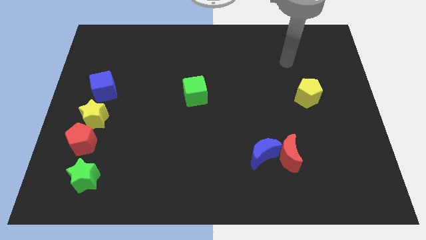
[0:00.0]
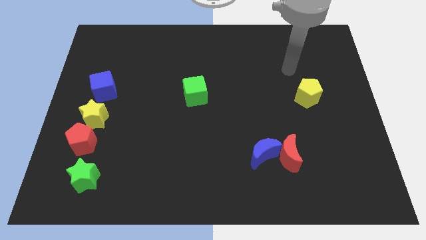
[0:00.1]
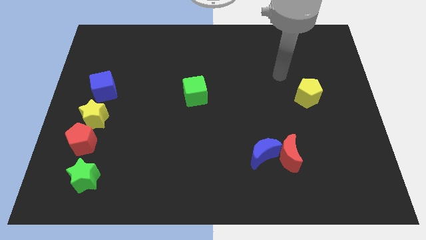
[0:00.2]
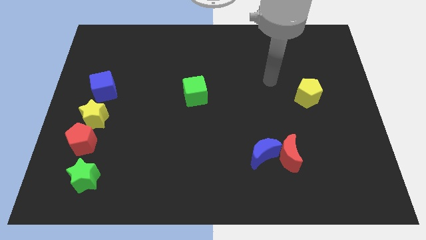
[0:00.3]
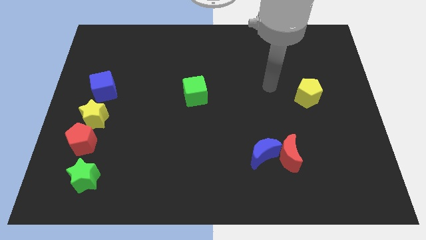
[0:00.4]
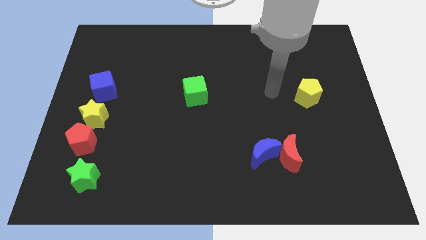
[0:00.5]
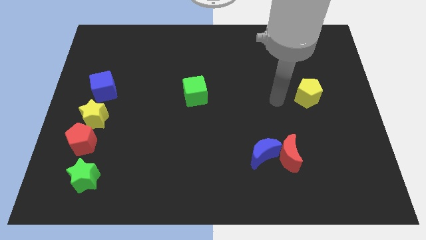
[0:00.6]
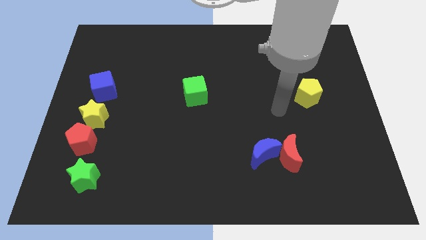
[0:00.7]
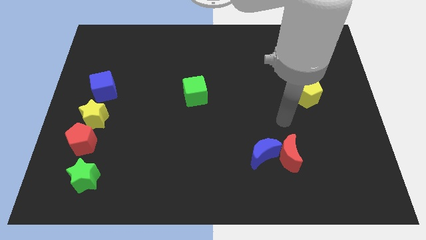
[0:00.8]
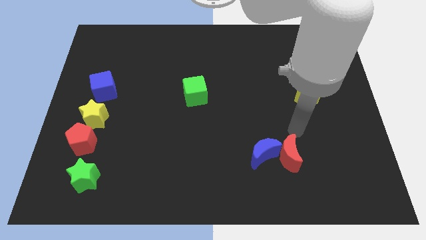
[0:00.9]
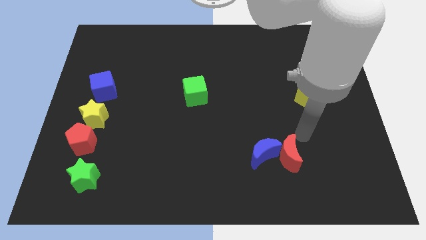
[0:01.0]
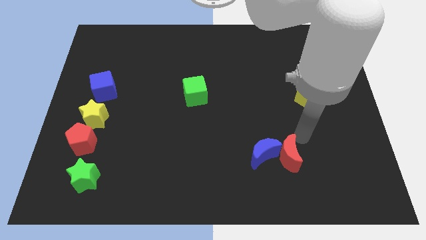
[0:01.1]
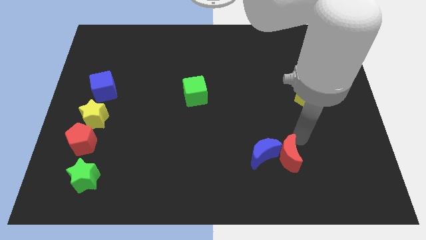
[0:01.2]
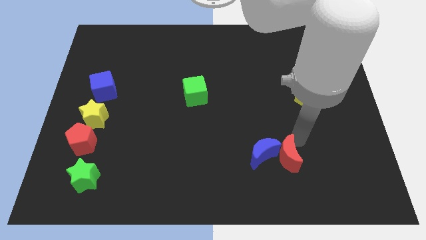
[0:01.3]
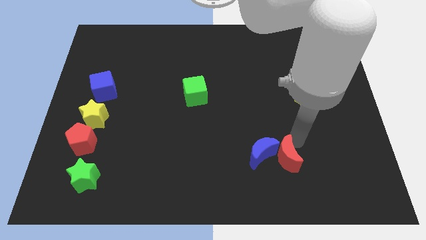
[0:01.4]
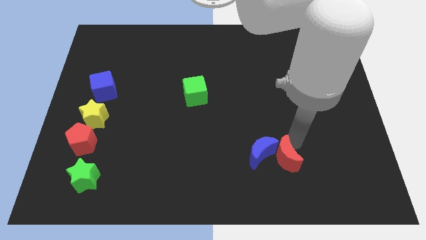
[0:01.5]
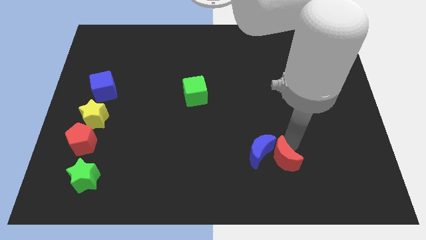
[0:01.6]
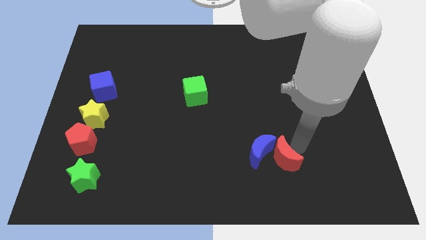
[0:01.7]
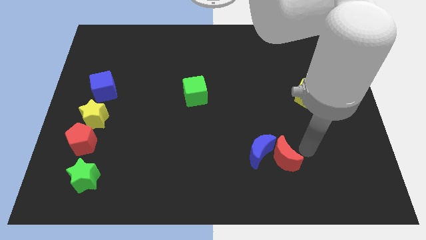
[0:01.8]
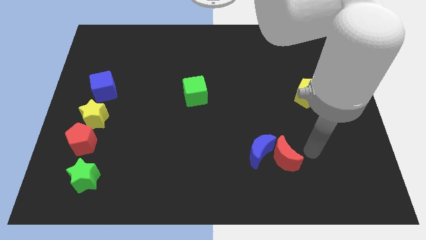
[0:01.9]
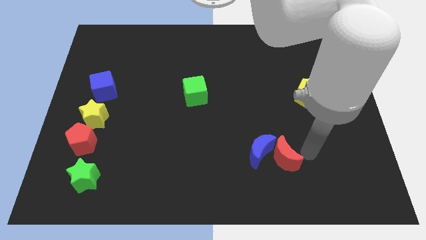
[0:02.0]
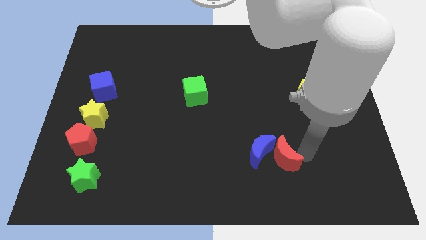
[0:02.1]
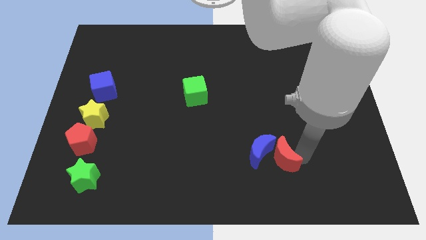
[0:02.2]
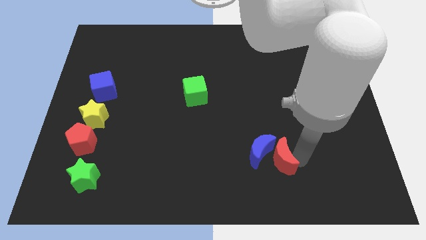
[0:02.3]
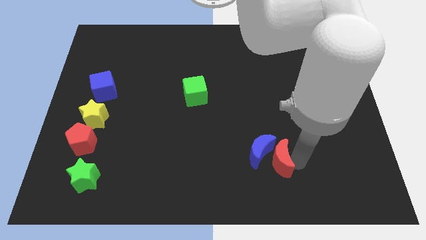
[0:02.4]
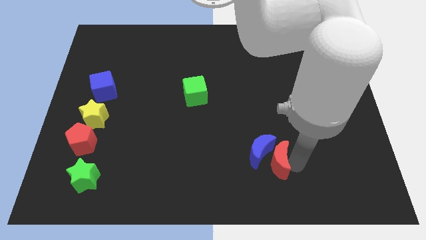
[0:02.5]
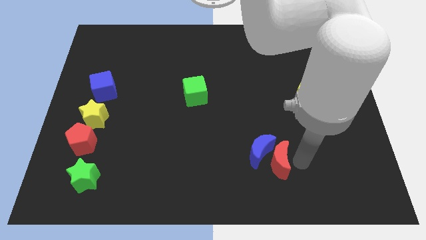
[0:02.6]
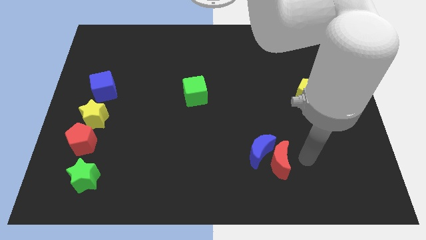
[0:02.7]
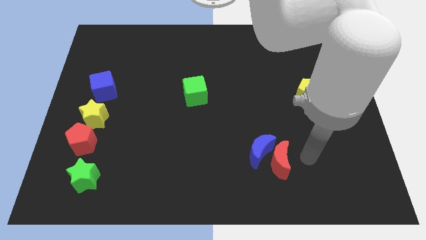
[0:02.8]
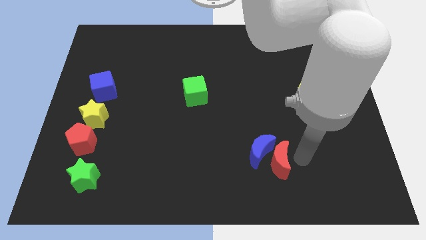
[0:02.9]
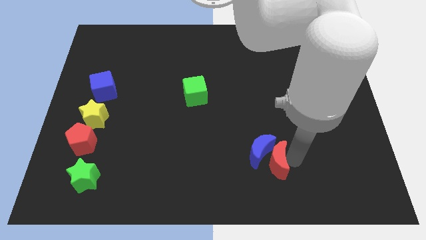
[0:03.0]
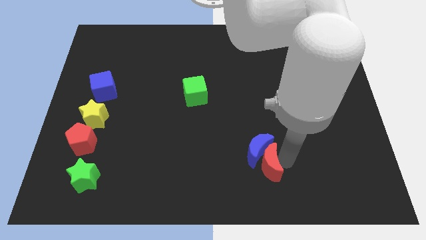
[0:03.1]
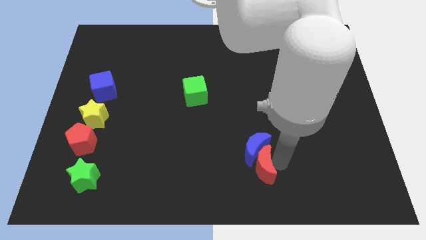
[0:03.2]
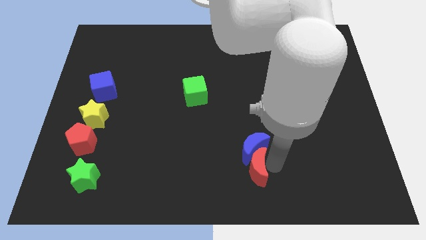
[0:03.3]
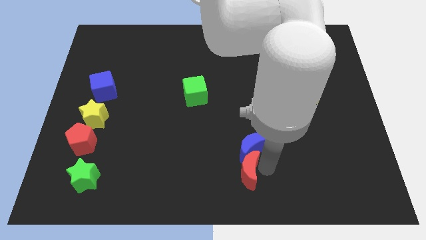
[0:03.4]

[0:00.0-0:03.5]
move the red moon left a little bit

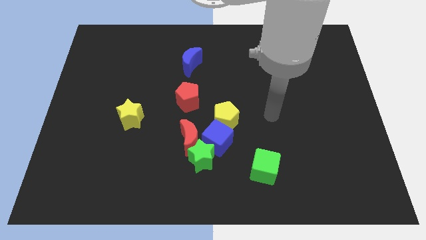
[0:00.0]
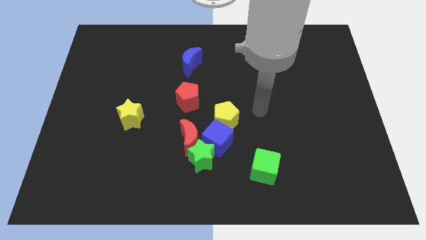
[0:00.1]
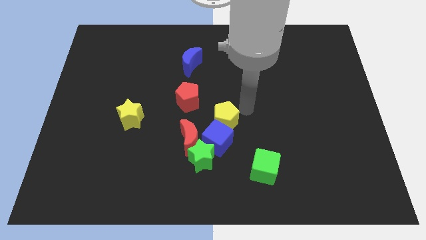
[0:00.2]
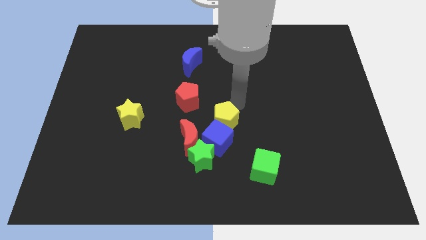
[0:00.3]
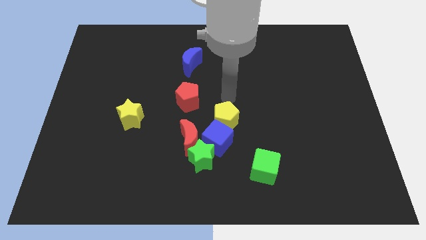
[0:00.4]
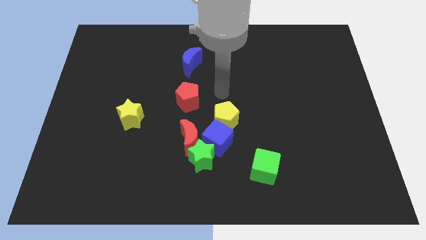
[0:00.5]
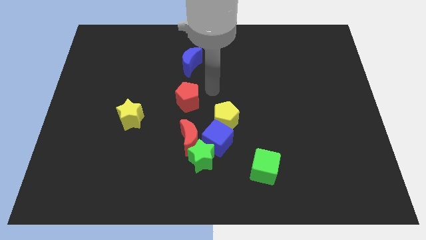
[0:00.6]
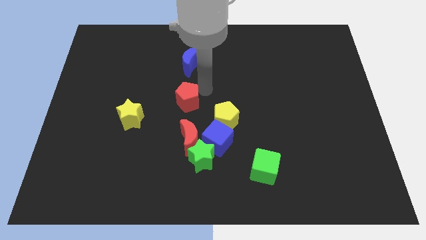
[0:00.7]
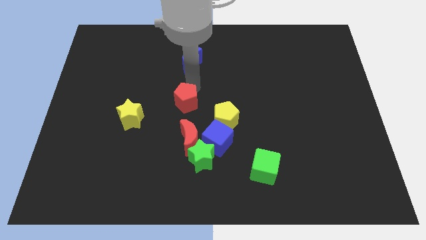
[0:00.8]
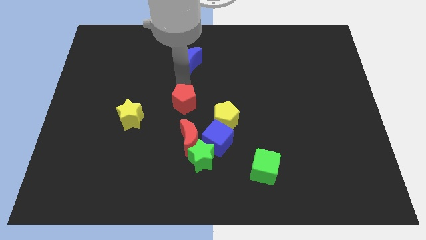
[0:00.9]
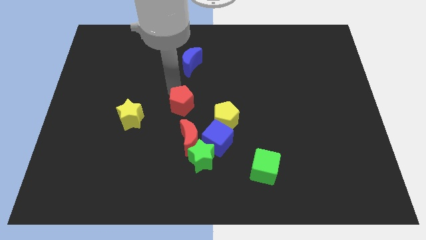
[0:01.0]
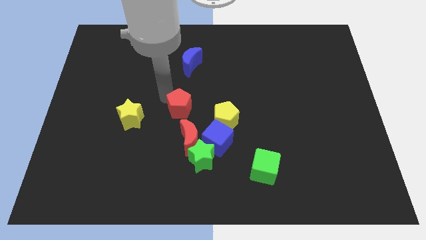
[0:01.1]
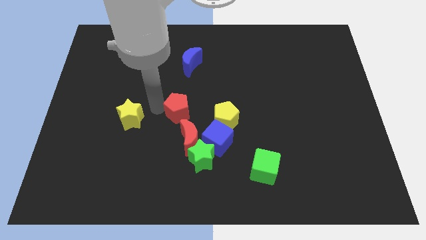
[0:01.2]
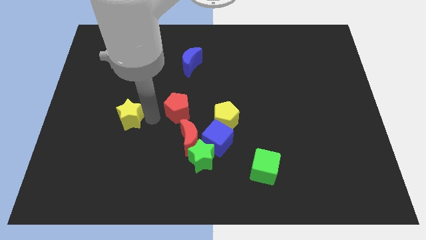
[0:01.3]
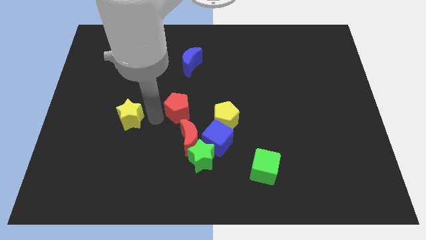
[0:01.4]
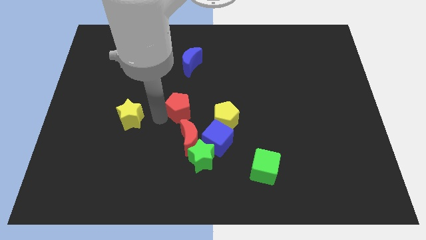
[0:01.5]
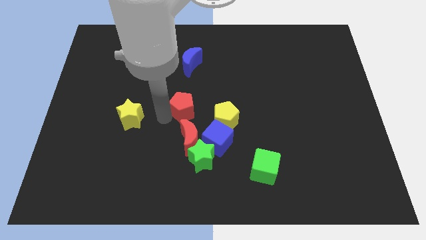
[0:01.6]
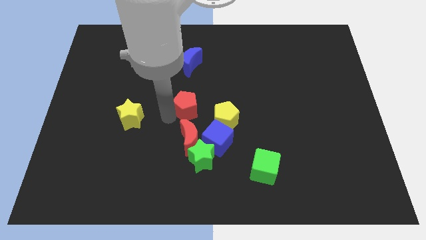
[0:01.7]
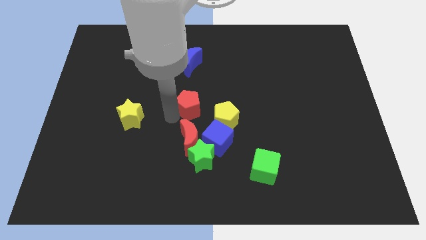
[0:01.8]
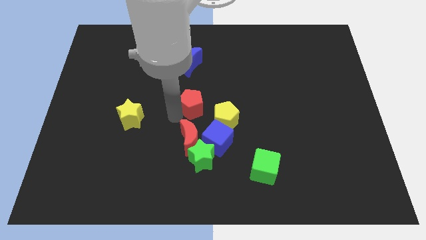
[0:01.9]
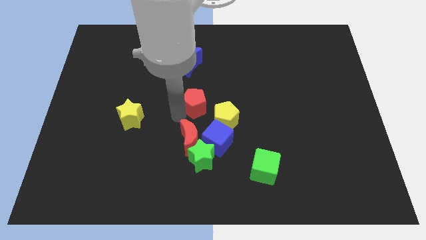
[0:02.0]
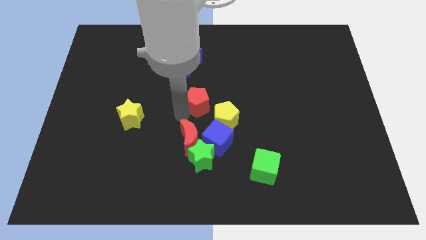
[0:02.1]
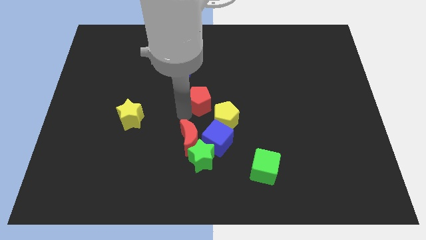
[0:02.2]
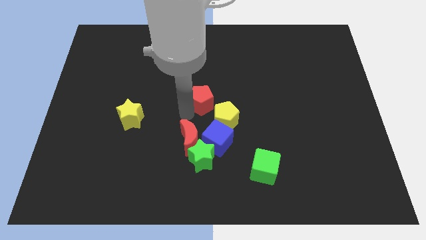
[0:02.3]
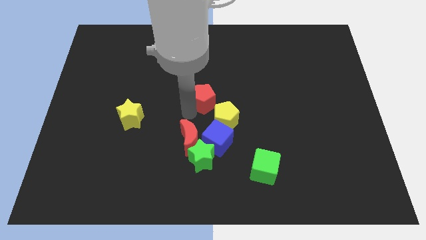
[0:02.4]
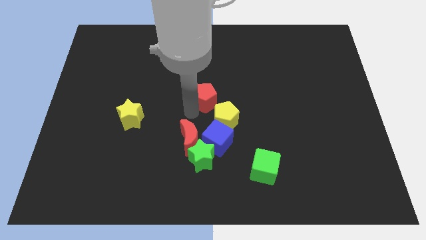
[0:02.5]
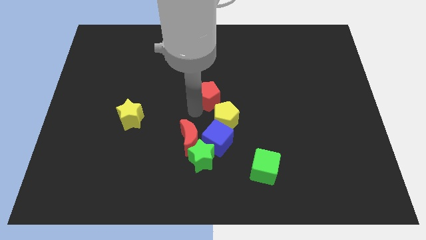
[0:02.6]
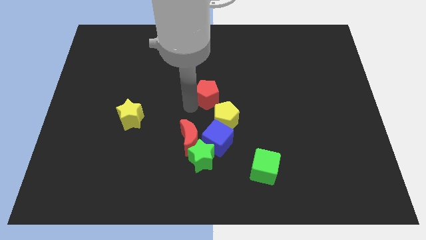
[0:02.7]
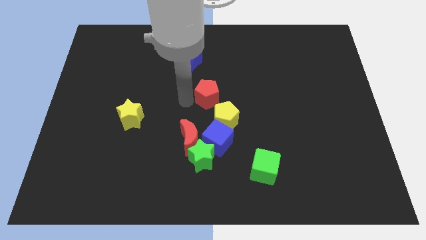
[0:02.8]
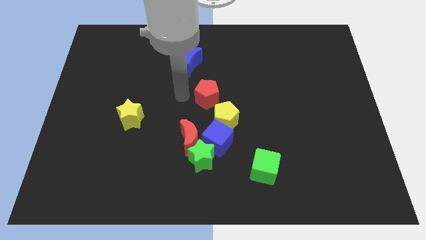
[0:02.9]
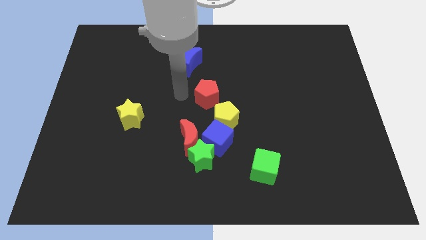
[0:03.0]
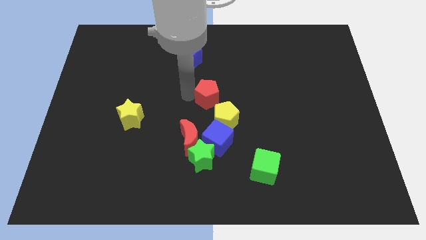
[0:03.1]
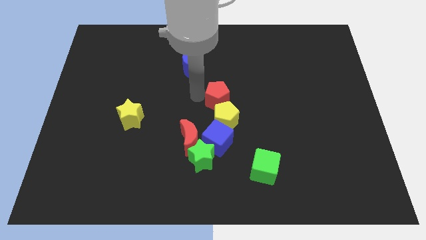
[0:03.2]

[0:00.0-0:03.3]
push the red pentagon a little to the right

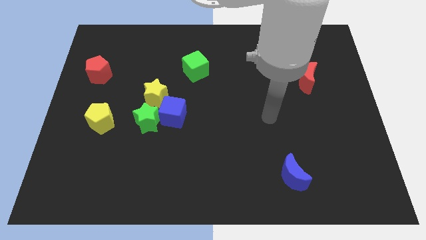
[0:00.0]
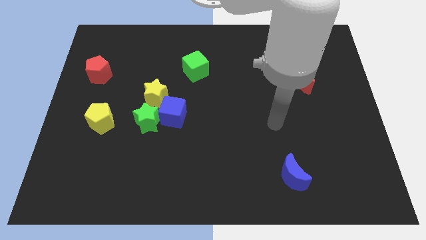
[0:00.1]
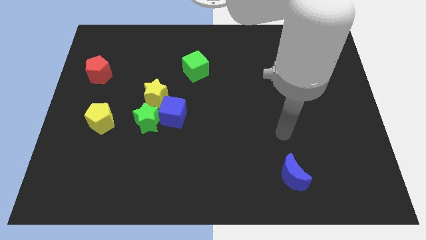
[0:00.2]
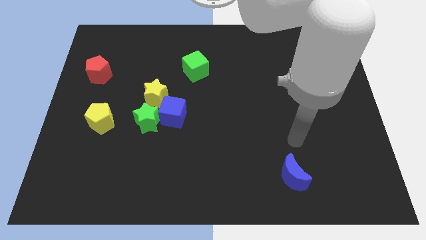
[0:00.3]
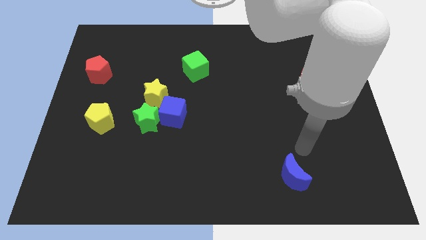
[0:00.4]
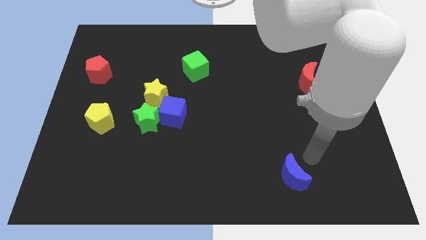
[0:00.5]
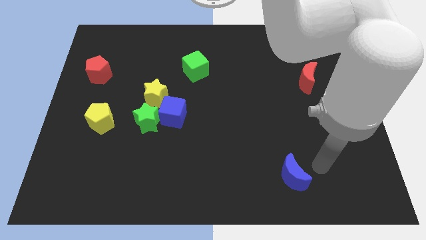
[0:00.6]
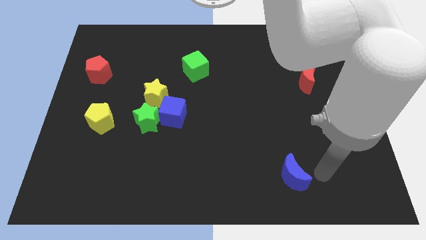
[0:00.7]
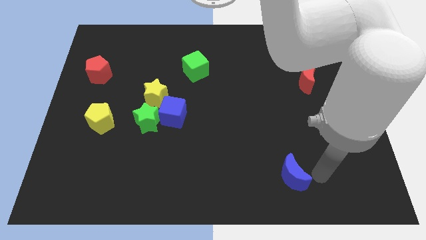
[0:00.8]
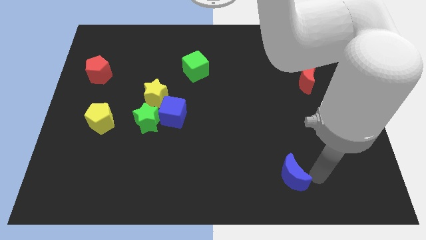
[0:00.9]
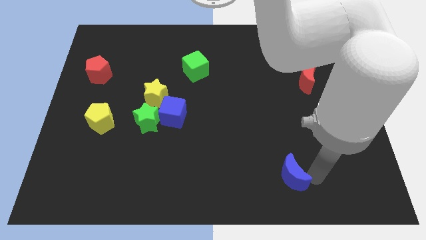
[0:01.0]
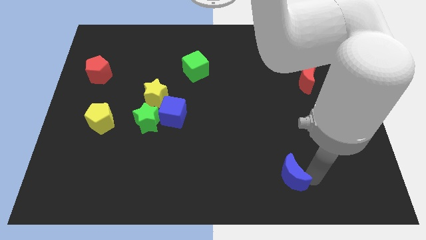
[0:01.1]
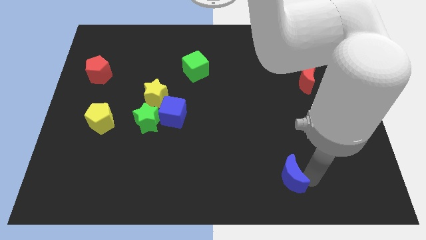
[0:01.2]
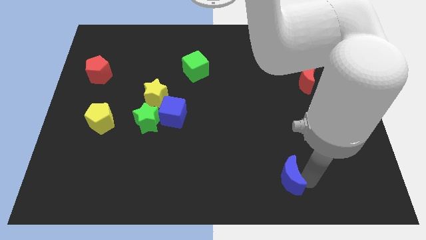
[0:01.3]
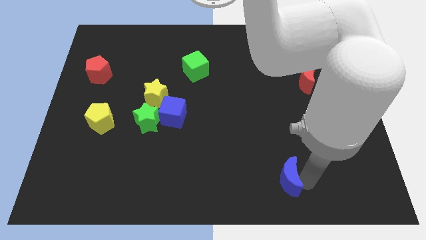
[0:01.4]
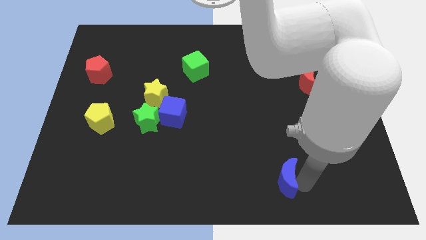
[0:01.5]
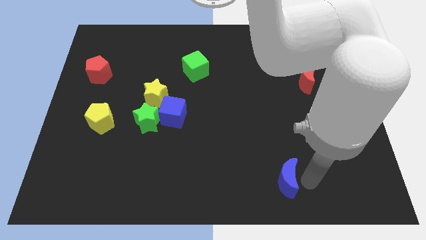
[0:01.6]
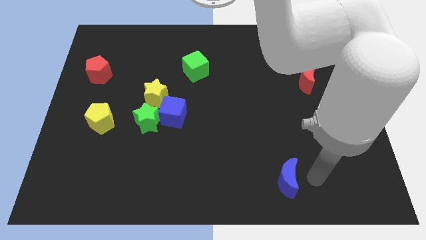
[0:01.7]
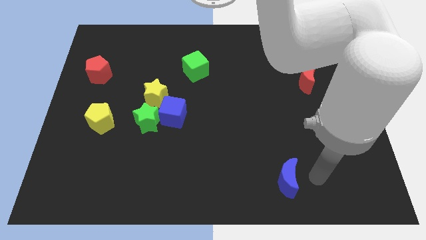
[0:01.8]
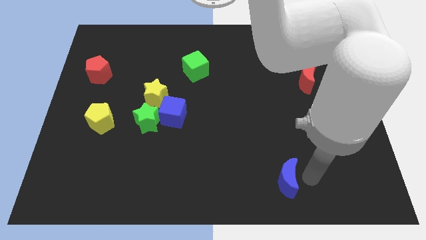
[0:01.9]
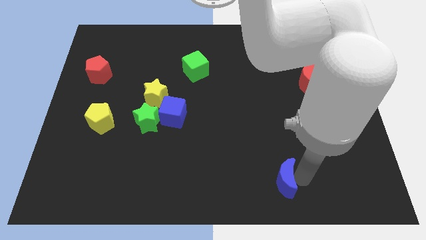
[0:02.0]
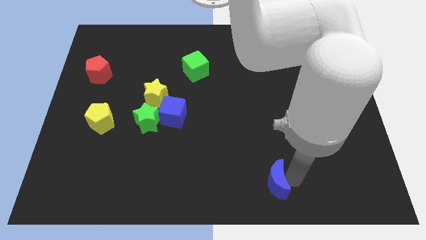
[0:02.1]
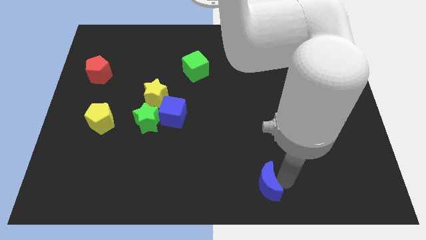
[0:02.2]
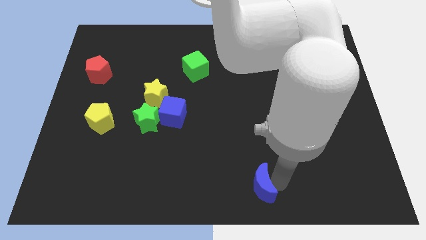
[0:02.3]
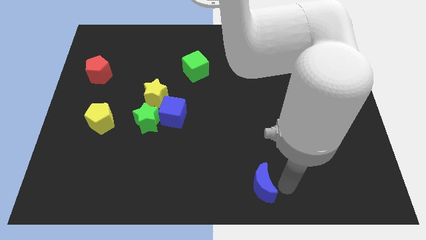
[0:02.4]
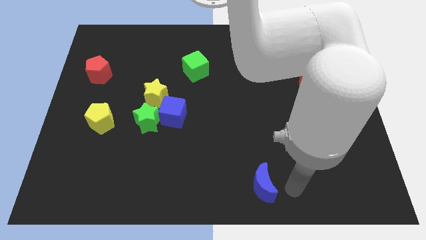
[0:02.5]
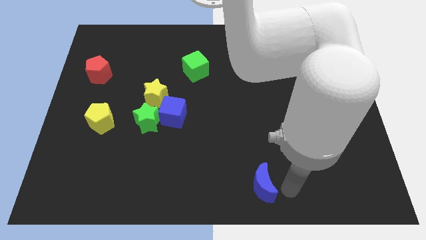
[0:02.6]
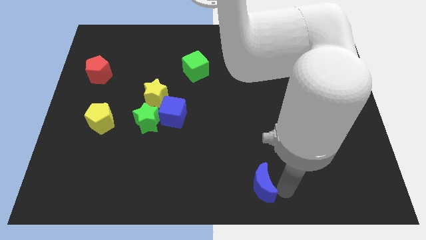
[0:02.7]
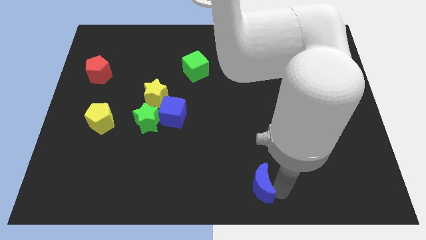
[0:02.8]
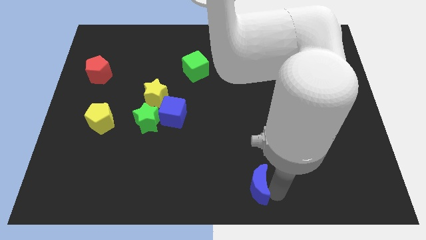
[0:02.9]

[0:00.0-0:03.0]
push the blue moon left a little bit
